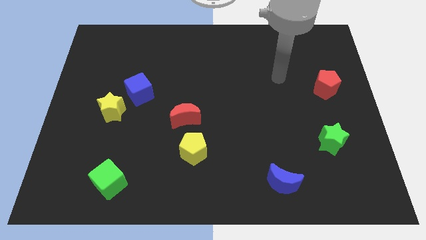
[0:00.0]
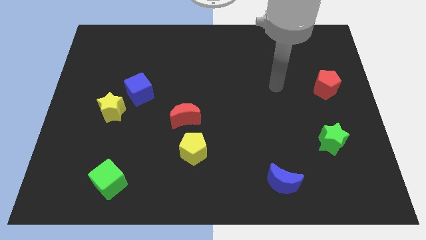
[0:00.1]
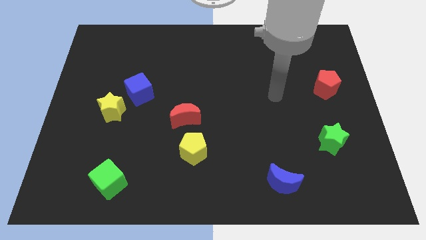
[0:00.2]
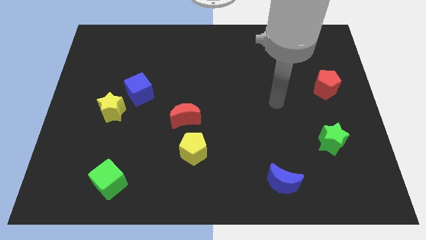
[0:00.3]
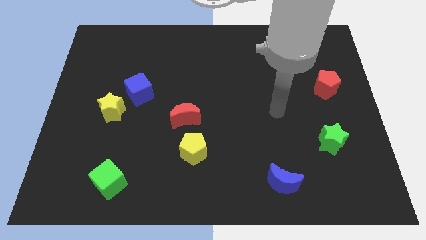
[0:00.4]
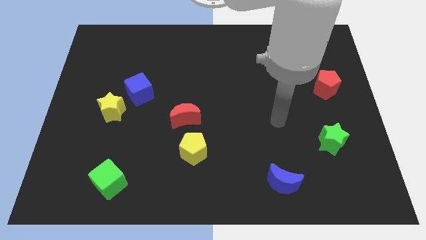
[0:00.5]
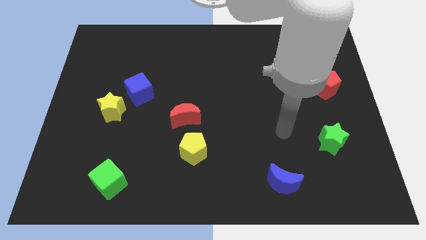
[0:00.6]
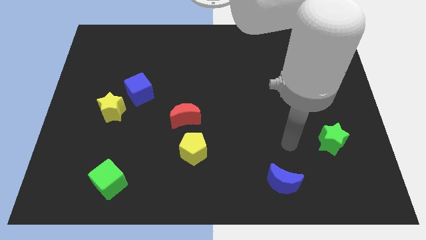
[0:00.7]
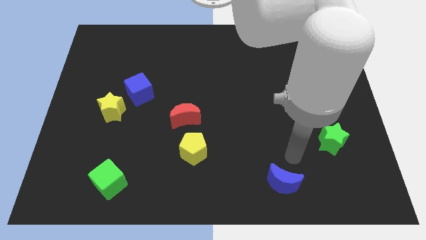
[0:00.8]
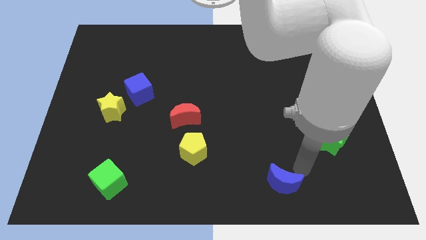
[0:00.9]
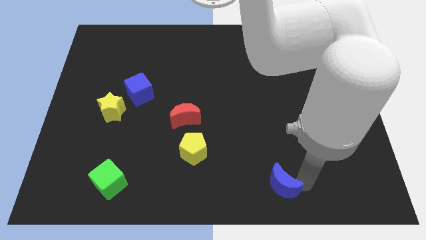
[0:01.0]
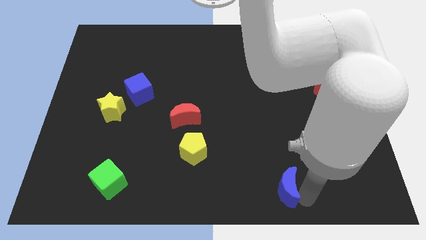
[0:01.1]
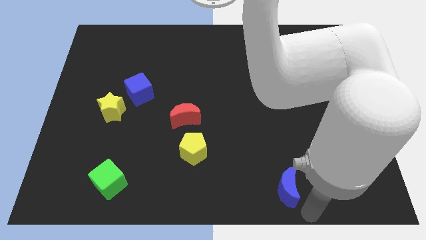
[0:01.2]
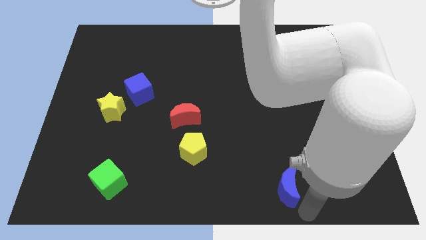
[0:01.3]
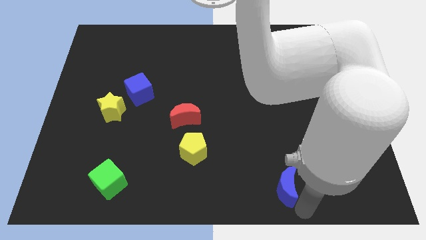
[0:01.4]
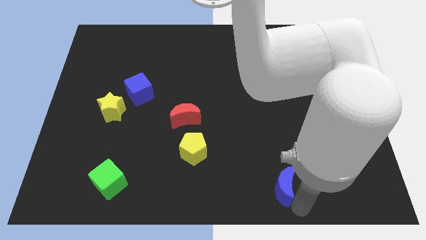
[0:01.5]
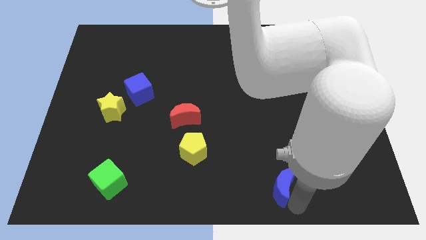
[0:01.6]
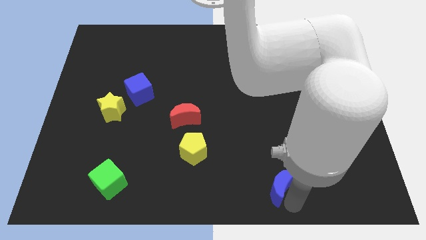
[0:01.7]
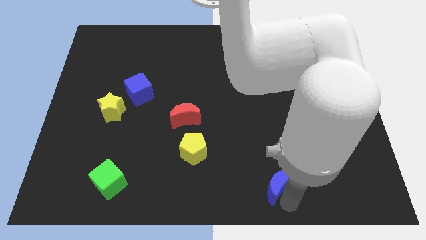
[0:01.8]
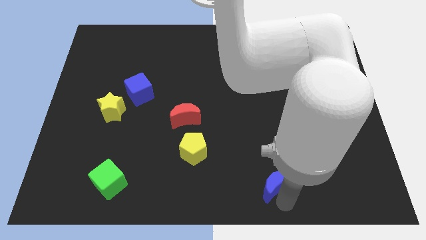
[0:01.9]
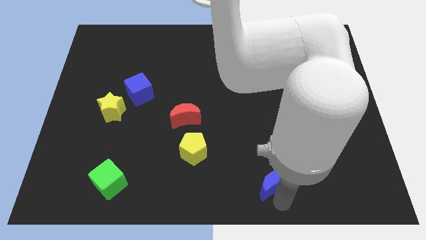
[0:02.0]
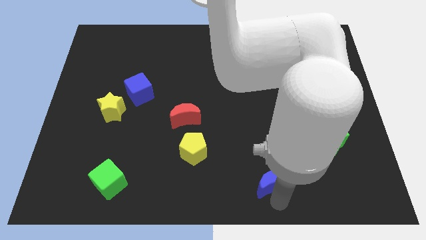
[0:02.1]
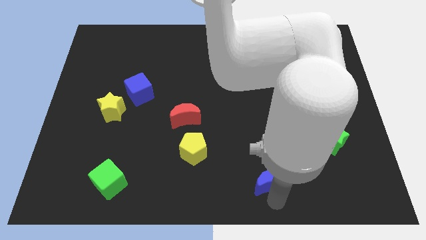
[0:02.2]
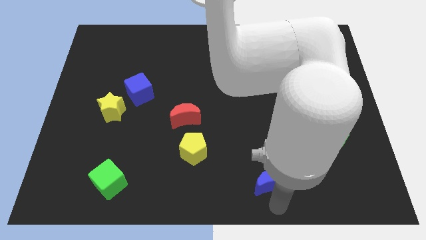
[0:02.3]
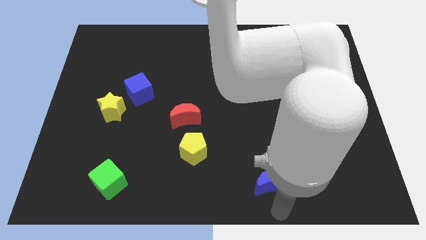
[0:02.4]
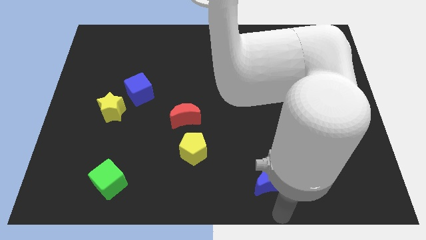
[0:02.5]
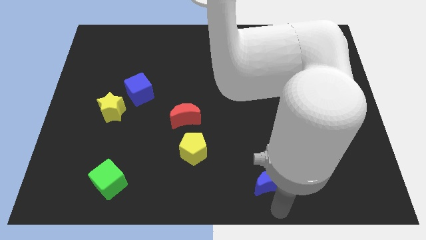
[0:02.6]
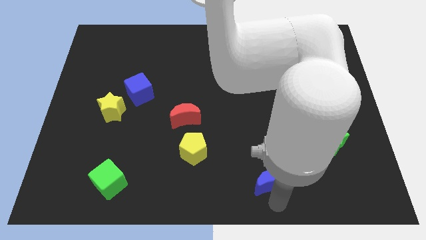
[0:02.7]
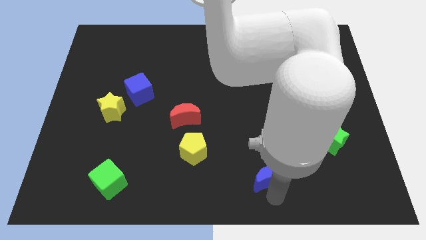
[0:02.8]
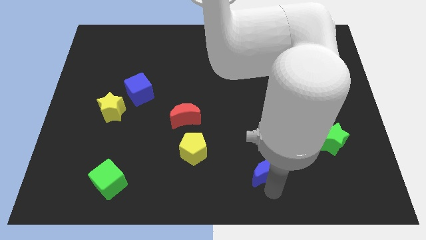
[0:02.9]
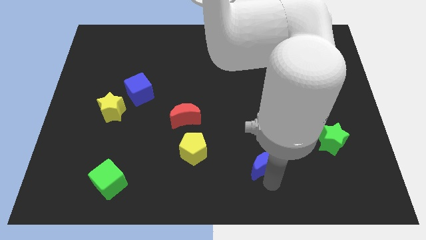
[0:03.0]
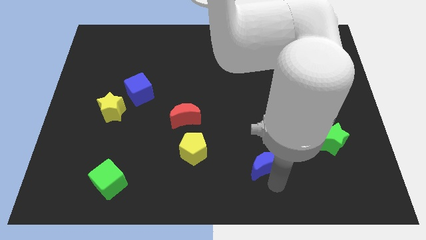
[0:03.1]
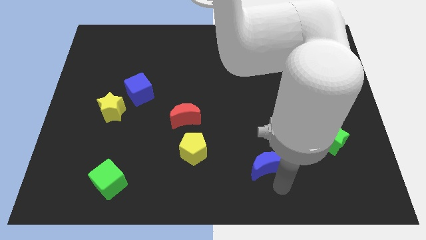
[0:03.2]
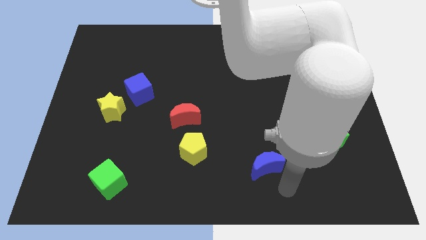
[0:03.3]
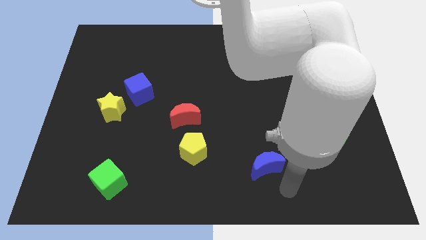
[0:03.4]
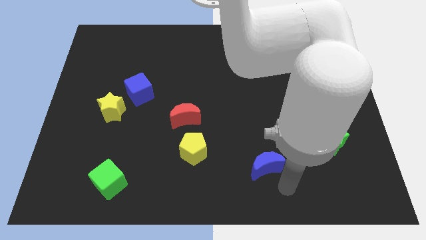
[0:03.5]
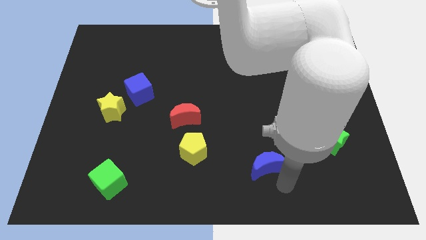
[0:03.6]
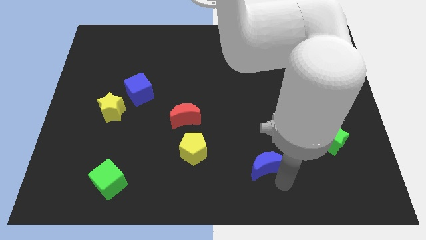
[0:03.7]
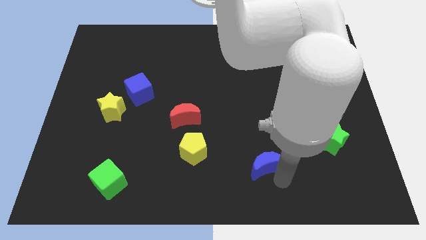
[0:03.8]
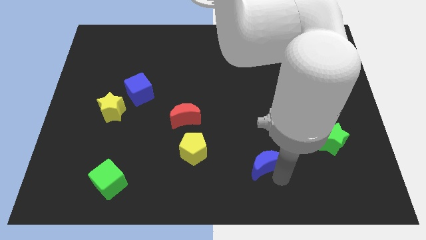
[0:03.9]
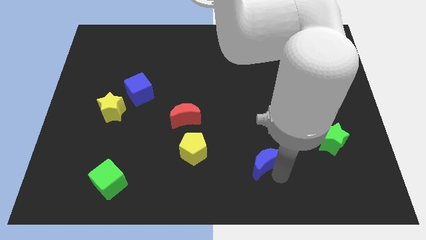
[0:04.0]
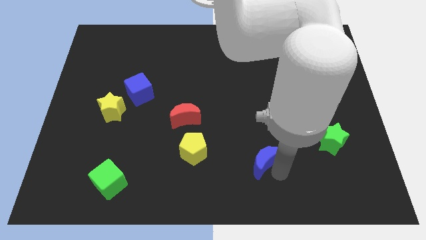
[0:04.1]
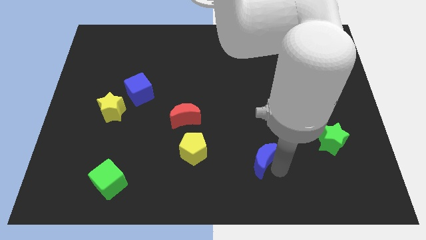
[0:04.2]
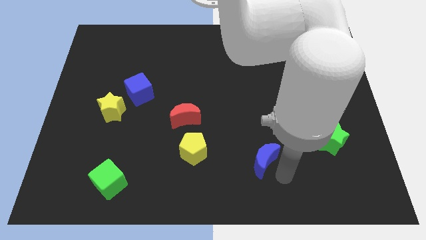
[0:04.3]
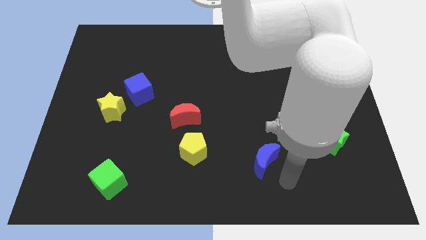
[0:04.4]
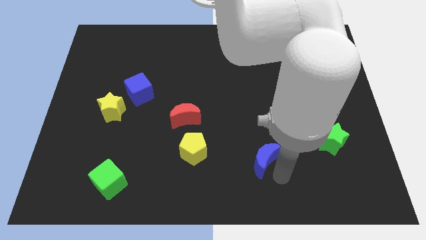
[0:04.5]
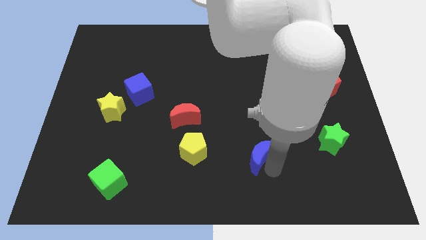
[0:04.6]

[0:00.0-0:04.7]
slide the blue moon diagonally upwards and left a little

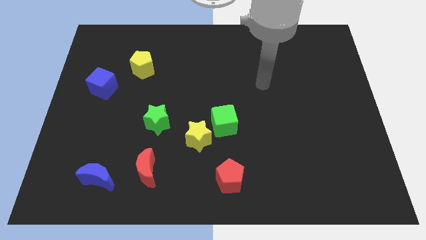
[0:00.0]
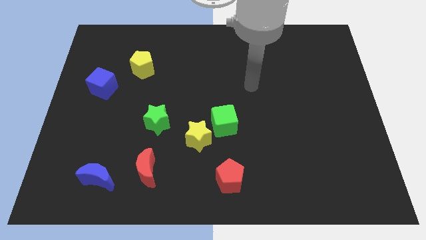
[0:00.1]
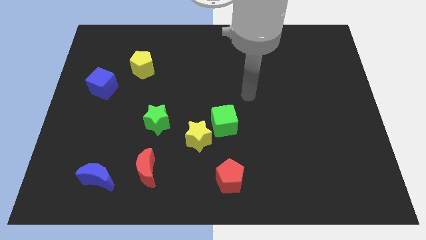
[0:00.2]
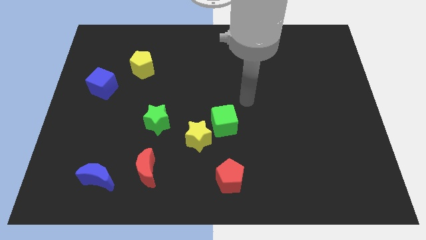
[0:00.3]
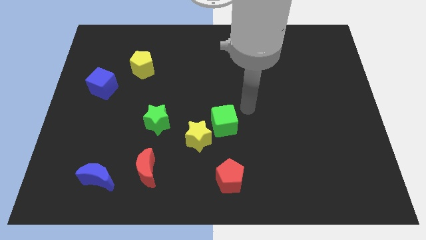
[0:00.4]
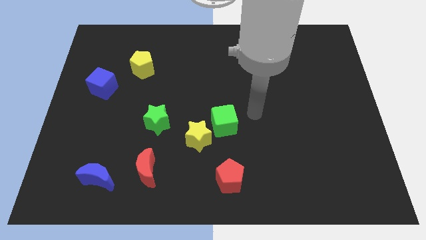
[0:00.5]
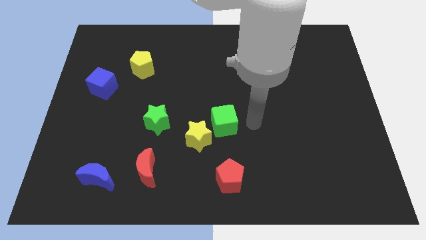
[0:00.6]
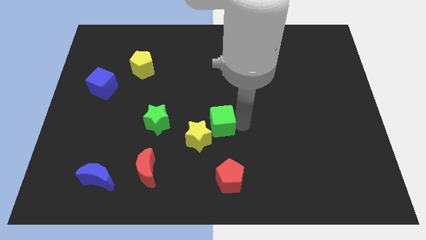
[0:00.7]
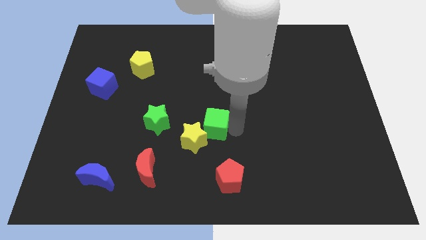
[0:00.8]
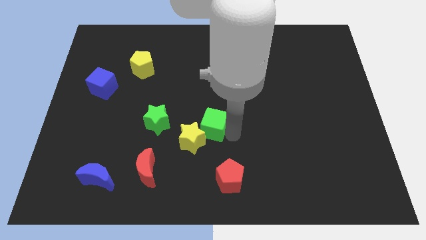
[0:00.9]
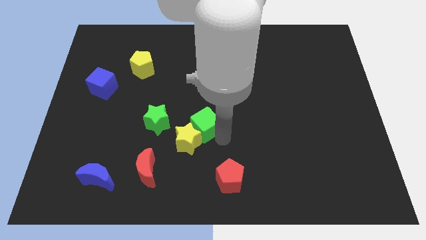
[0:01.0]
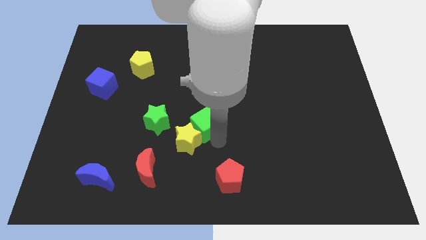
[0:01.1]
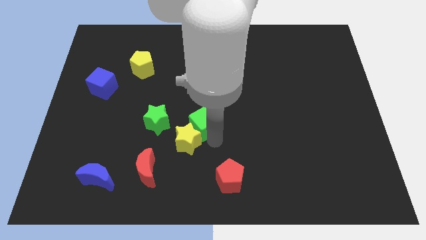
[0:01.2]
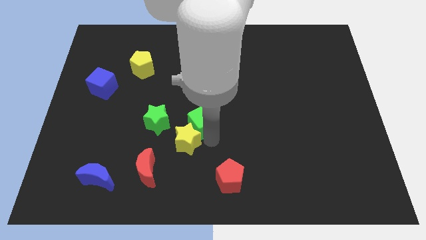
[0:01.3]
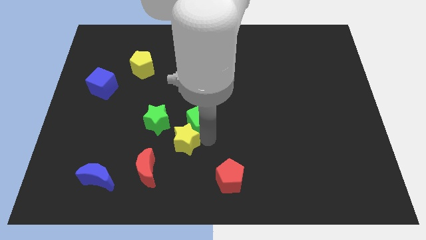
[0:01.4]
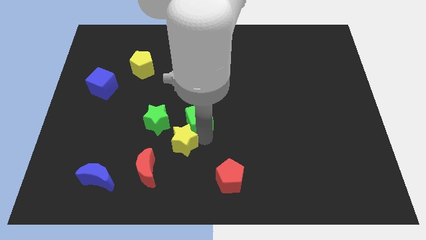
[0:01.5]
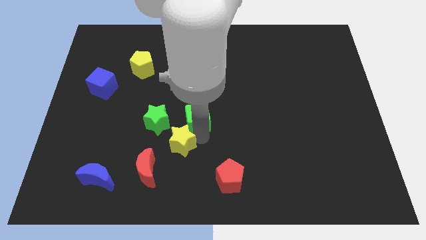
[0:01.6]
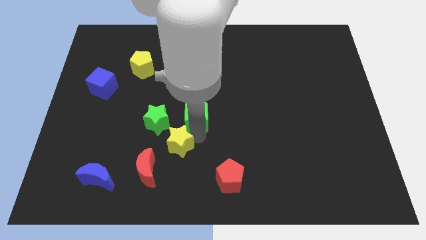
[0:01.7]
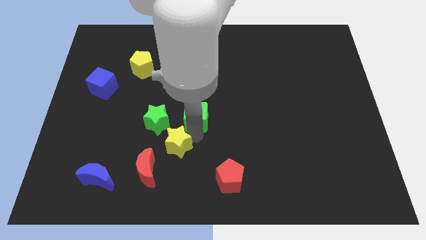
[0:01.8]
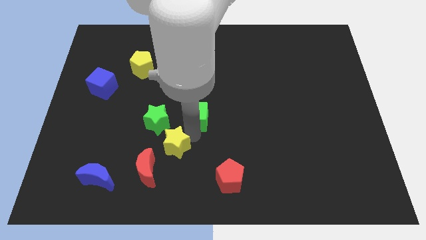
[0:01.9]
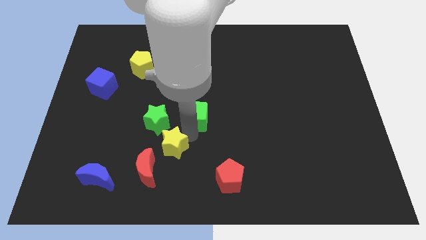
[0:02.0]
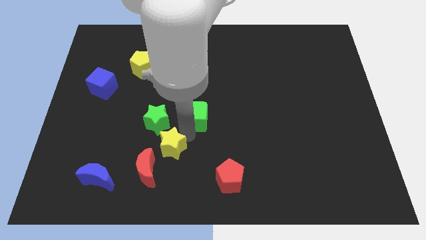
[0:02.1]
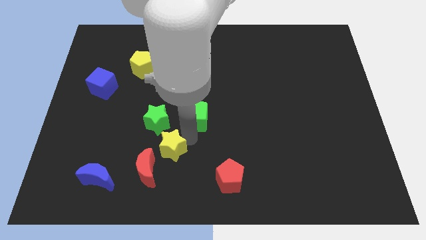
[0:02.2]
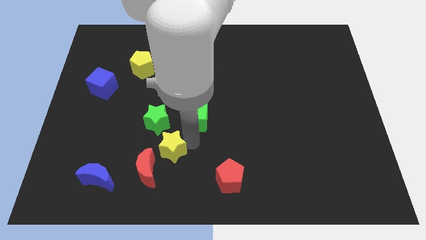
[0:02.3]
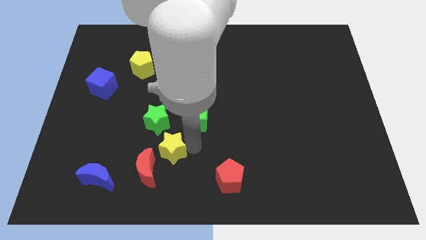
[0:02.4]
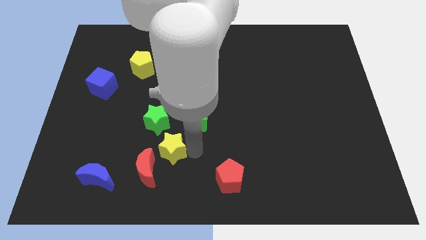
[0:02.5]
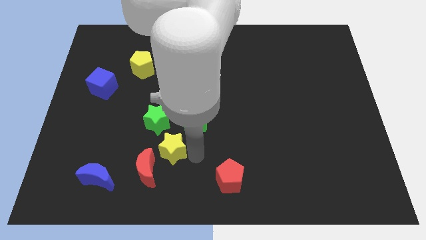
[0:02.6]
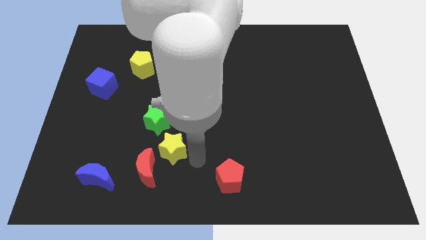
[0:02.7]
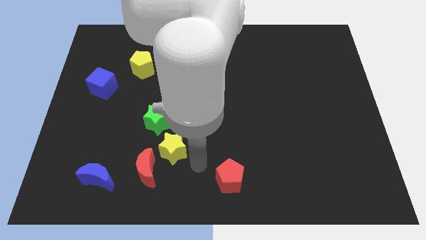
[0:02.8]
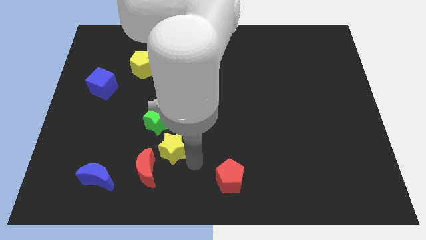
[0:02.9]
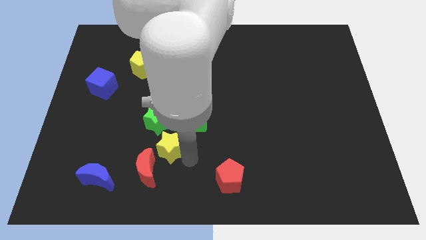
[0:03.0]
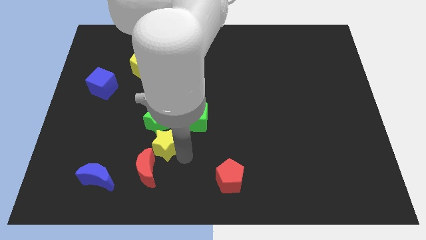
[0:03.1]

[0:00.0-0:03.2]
move the yellow star left a little
